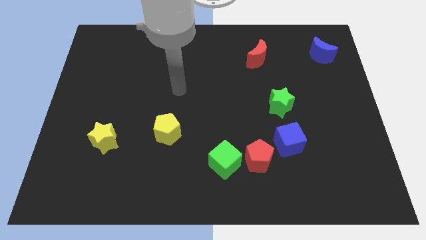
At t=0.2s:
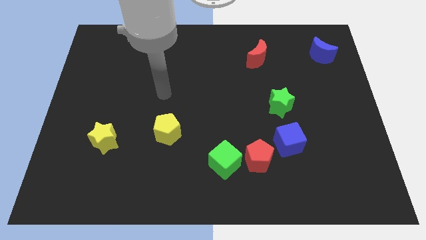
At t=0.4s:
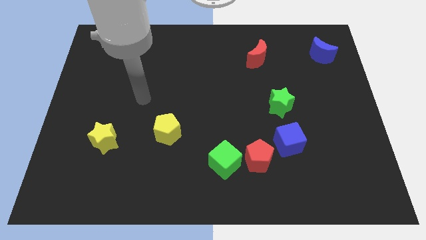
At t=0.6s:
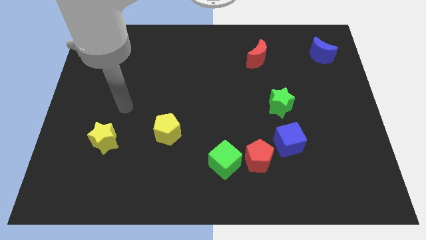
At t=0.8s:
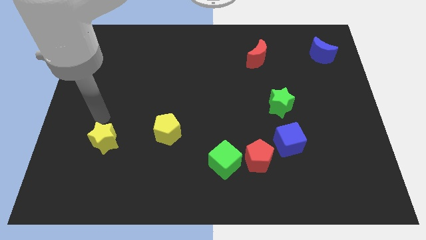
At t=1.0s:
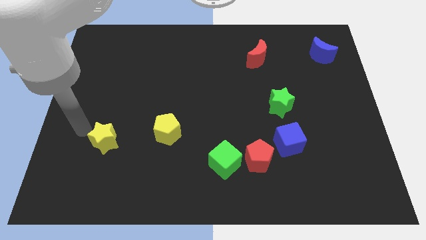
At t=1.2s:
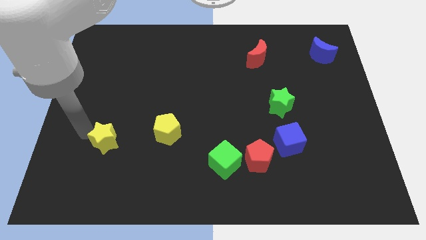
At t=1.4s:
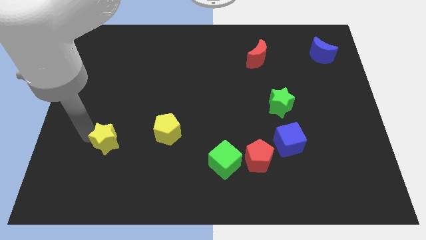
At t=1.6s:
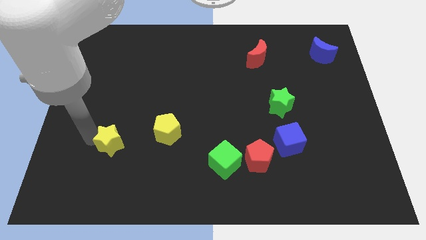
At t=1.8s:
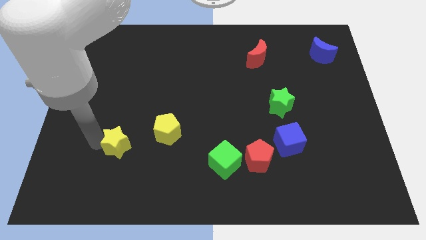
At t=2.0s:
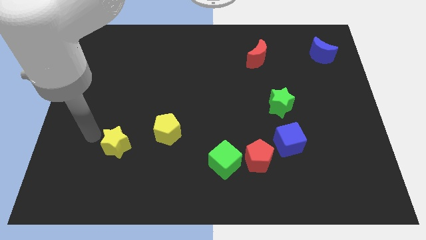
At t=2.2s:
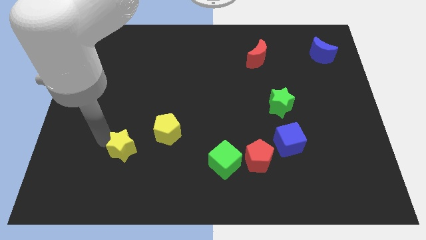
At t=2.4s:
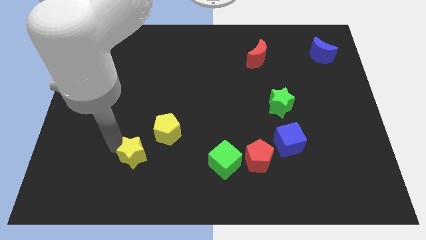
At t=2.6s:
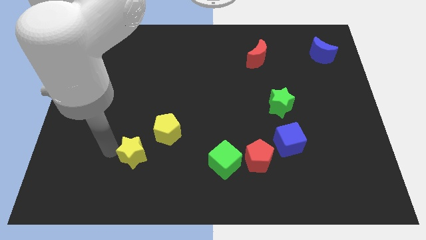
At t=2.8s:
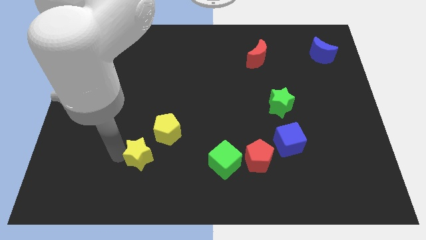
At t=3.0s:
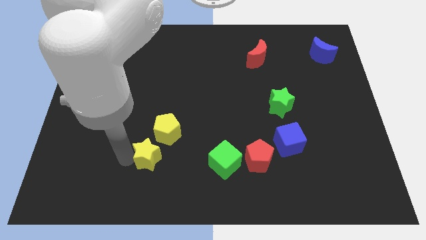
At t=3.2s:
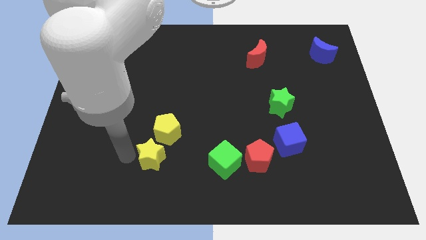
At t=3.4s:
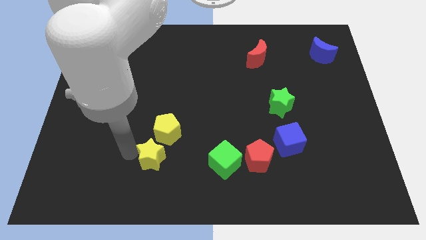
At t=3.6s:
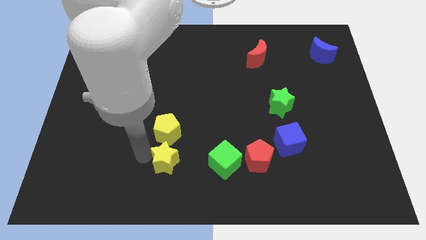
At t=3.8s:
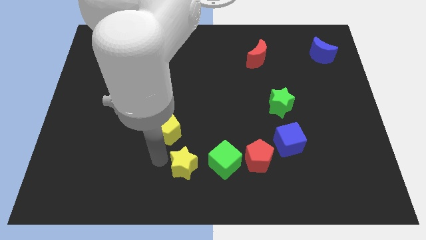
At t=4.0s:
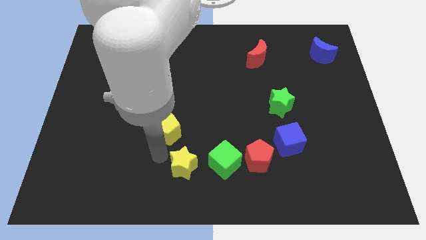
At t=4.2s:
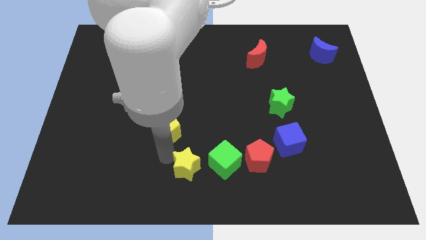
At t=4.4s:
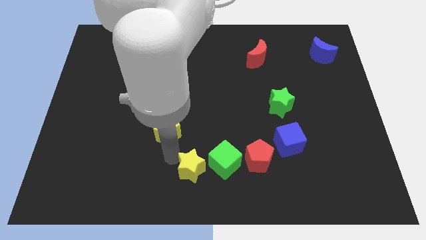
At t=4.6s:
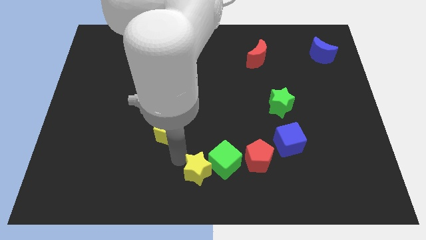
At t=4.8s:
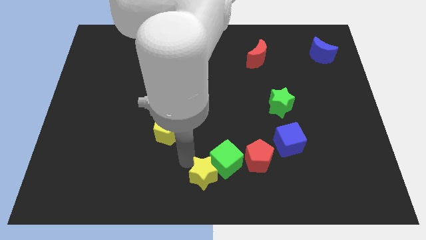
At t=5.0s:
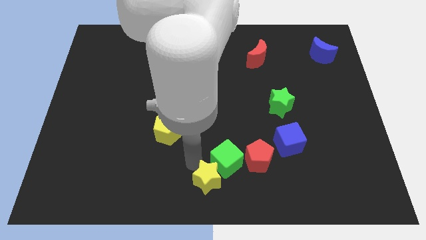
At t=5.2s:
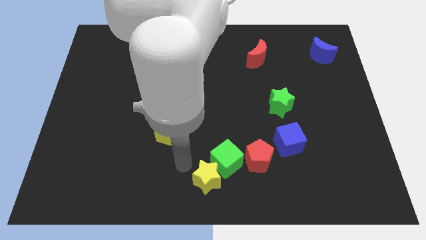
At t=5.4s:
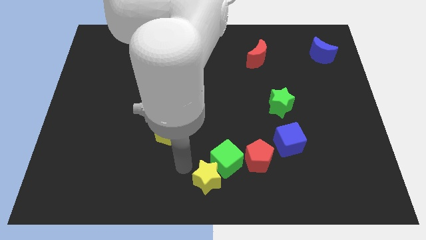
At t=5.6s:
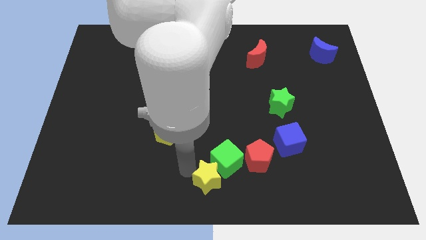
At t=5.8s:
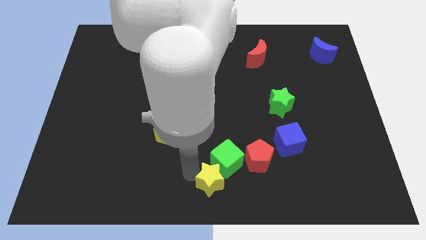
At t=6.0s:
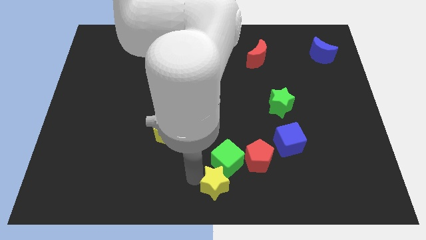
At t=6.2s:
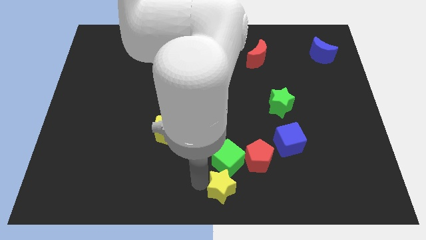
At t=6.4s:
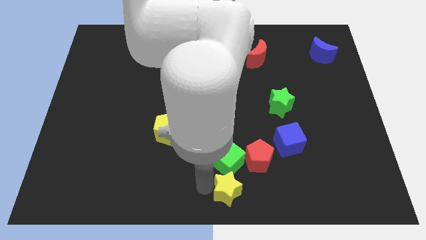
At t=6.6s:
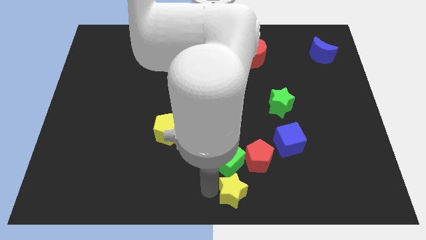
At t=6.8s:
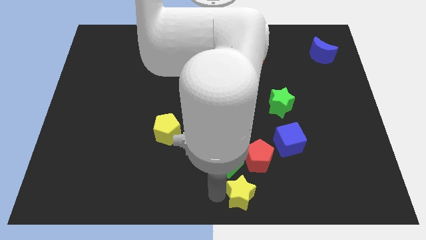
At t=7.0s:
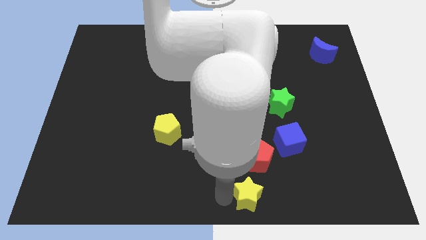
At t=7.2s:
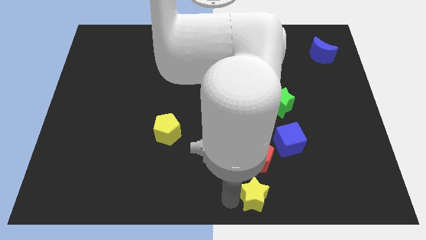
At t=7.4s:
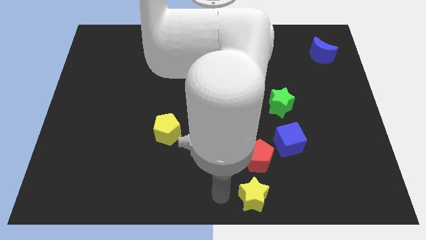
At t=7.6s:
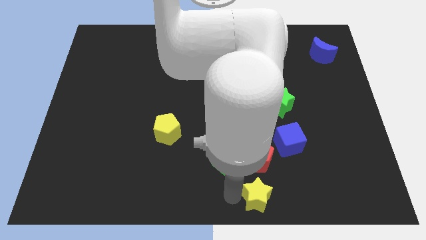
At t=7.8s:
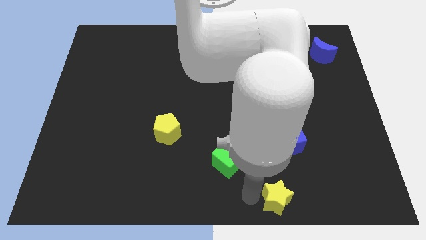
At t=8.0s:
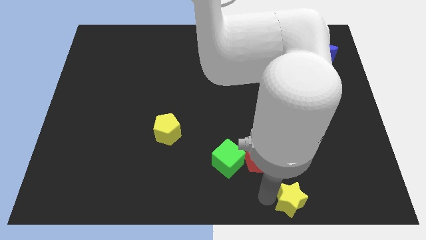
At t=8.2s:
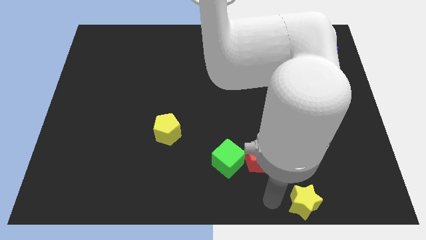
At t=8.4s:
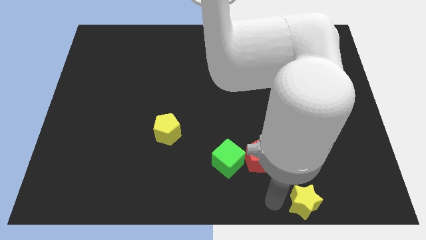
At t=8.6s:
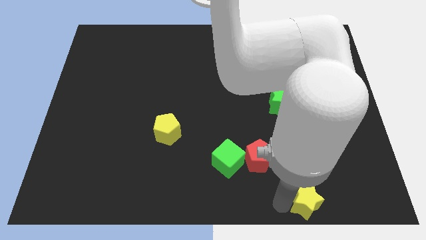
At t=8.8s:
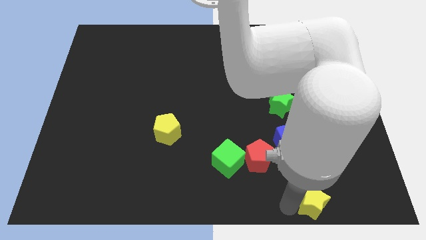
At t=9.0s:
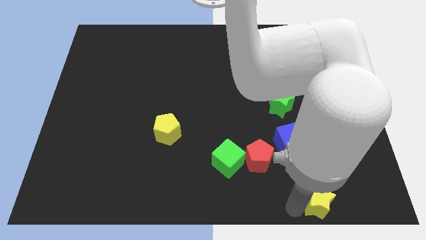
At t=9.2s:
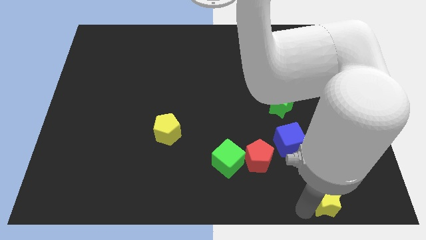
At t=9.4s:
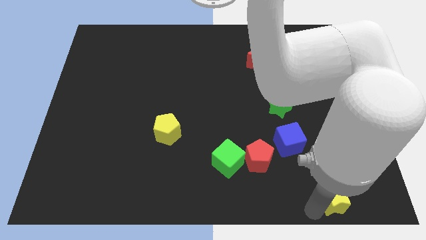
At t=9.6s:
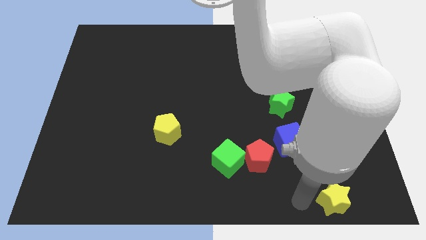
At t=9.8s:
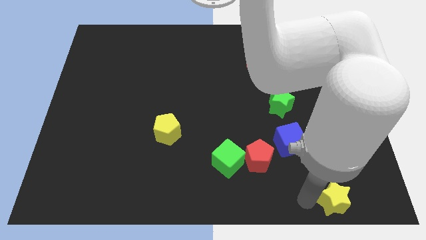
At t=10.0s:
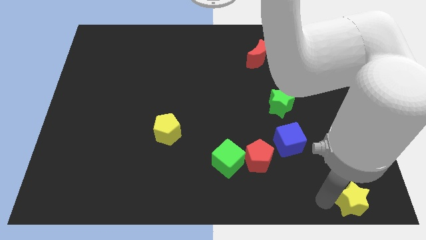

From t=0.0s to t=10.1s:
put the yellow star to the bottom right corner

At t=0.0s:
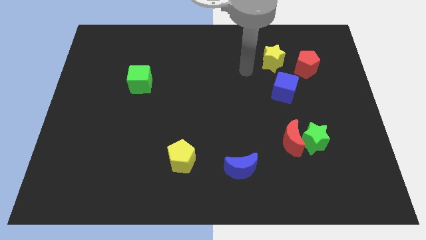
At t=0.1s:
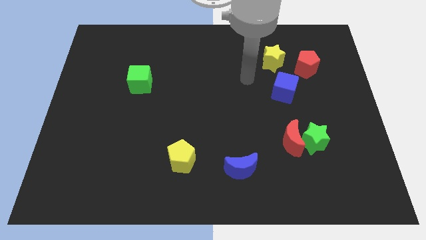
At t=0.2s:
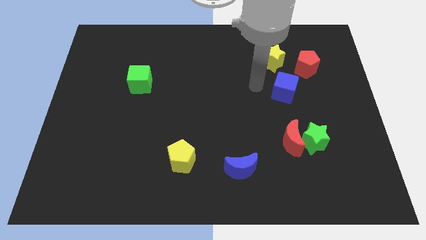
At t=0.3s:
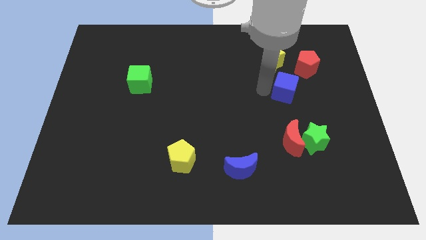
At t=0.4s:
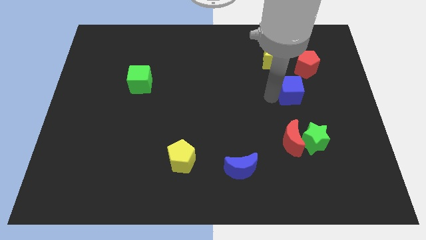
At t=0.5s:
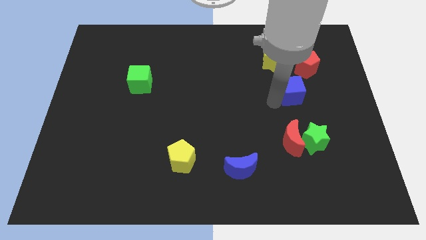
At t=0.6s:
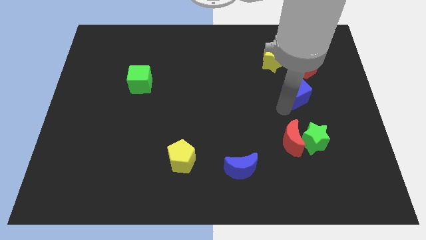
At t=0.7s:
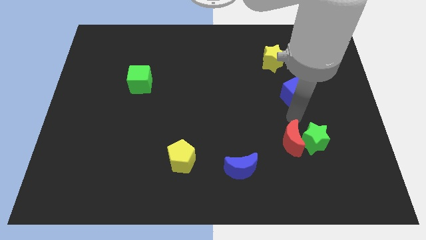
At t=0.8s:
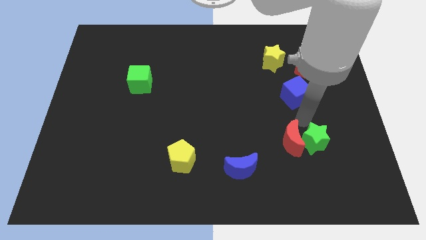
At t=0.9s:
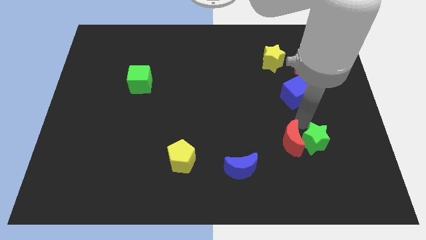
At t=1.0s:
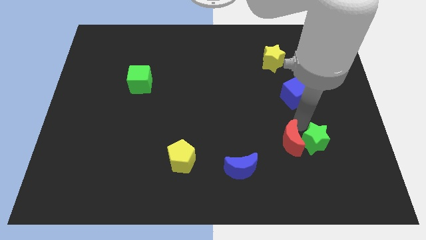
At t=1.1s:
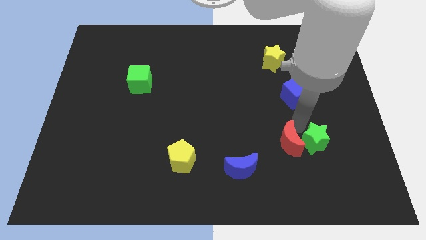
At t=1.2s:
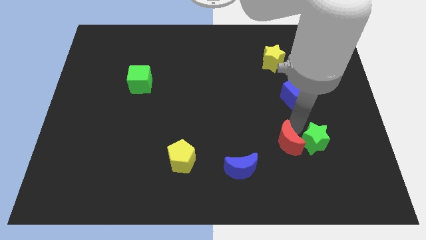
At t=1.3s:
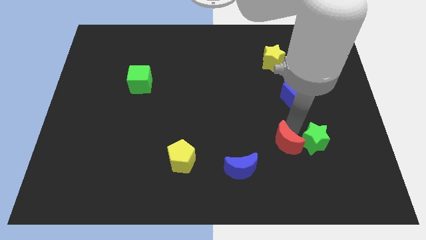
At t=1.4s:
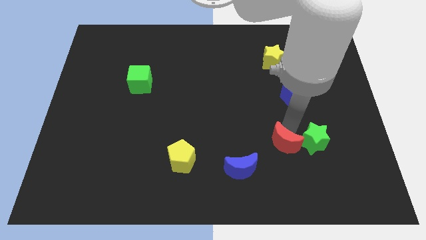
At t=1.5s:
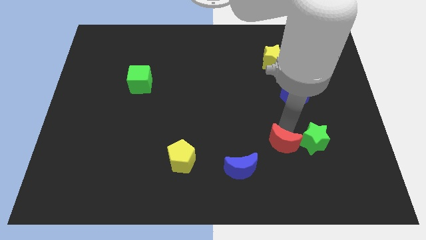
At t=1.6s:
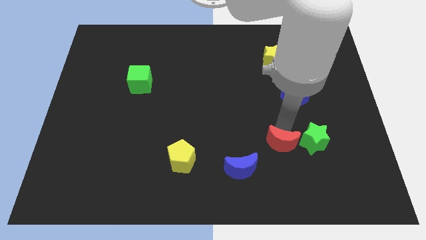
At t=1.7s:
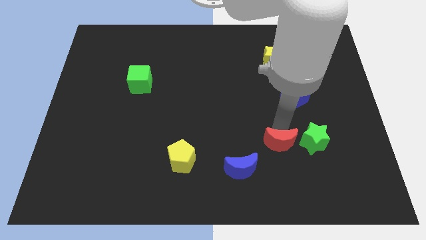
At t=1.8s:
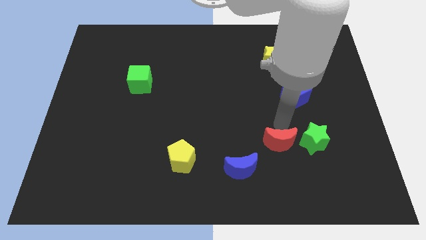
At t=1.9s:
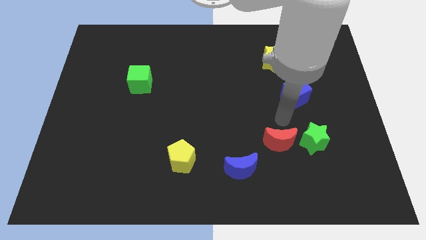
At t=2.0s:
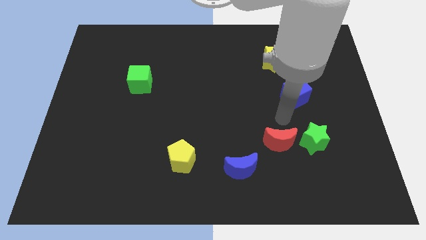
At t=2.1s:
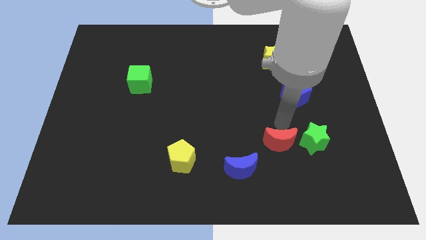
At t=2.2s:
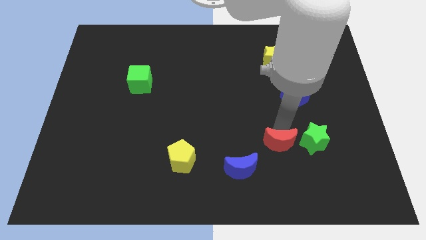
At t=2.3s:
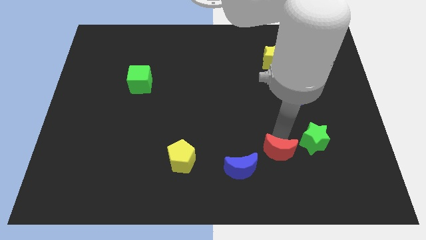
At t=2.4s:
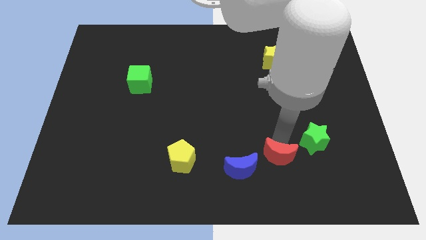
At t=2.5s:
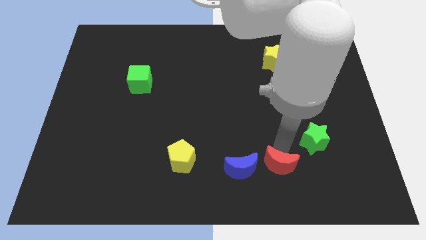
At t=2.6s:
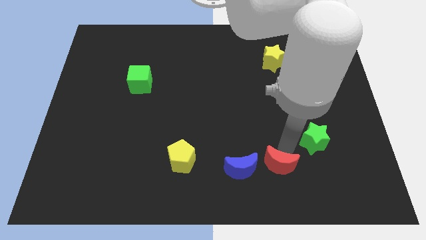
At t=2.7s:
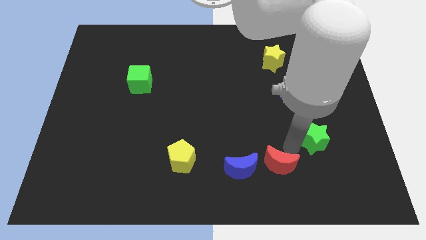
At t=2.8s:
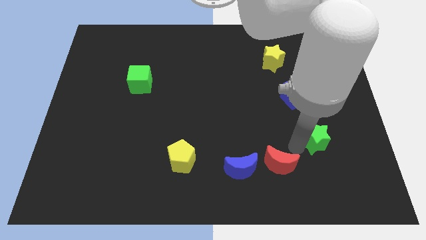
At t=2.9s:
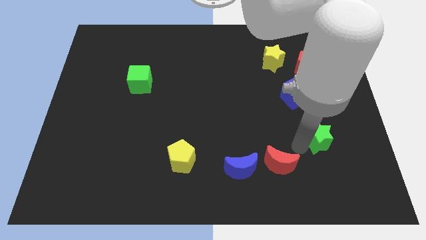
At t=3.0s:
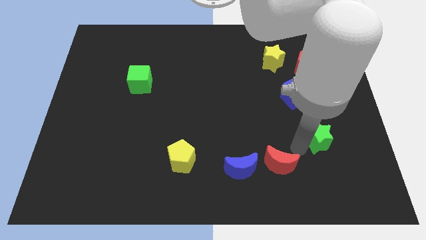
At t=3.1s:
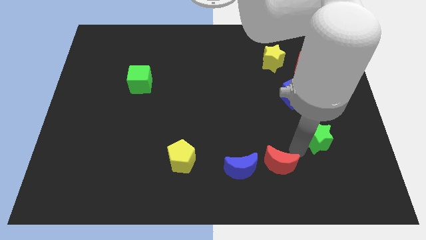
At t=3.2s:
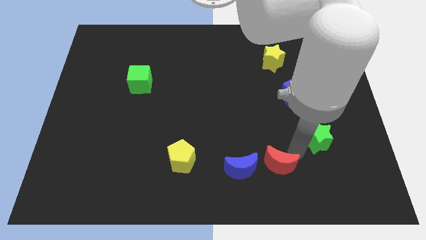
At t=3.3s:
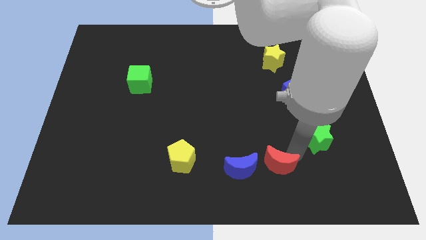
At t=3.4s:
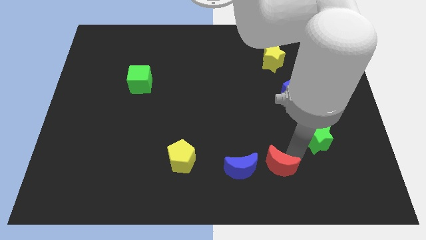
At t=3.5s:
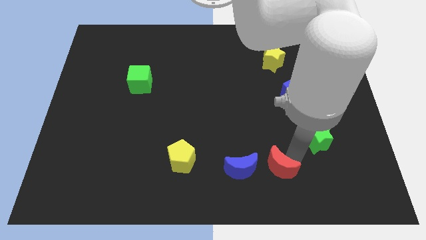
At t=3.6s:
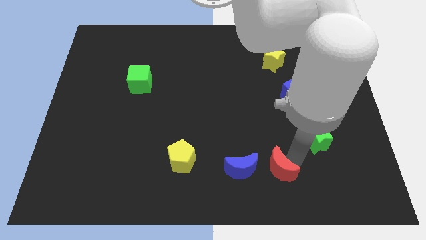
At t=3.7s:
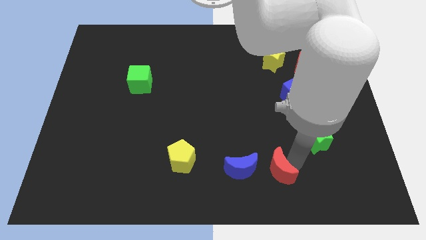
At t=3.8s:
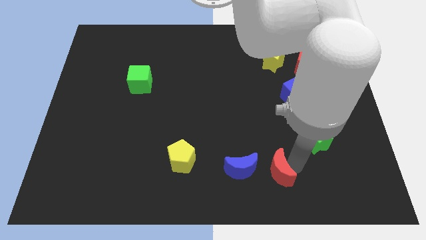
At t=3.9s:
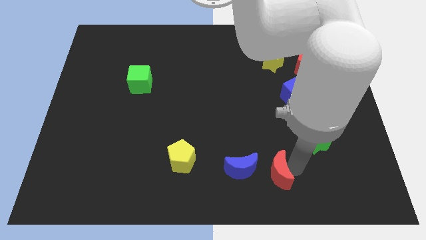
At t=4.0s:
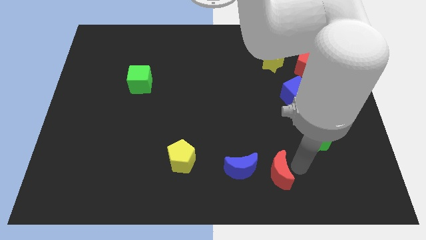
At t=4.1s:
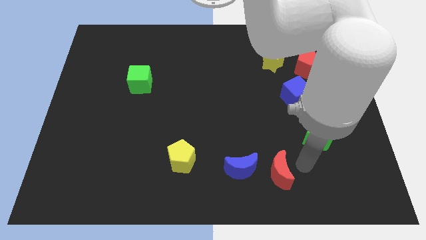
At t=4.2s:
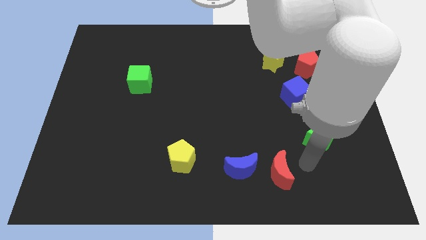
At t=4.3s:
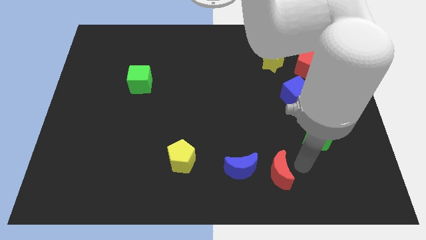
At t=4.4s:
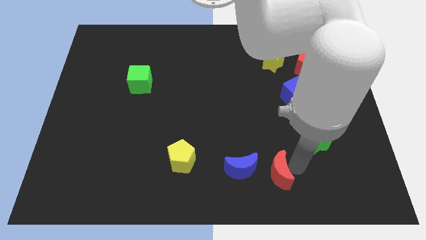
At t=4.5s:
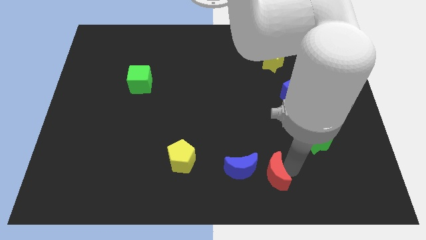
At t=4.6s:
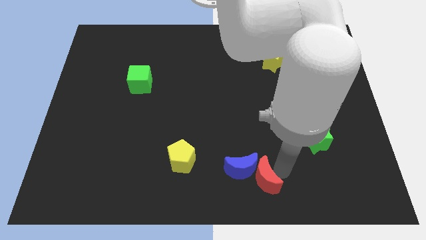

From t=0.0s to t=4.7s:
put the red moon to the bottom side
